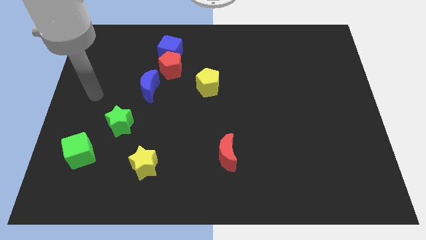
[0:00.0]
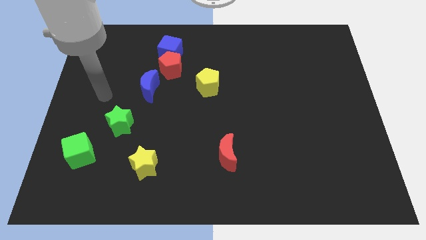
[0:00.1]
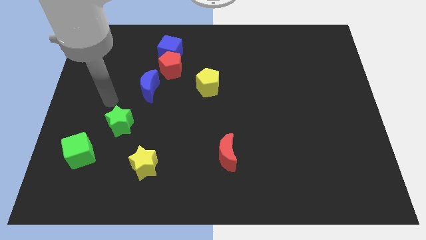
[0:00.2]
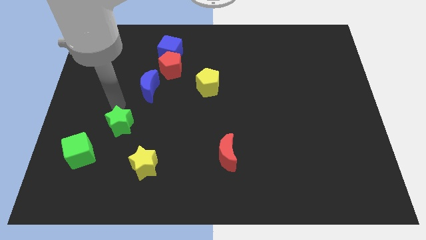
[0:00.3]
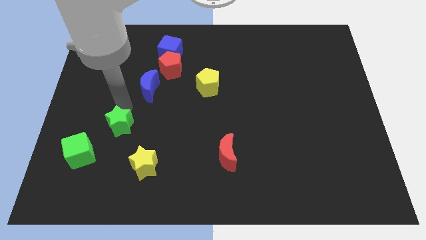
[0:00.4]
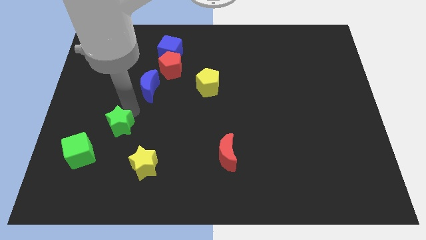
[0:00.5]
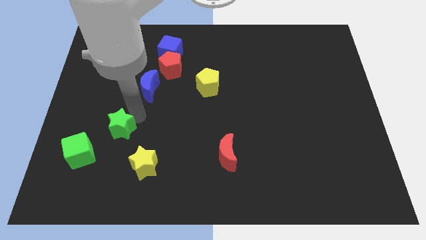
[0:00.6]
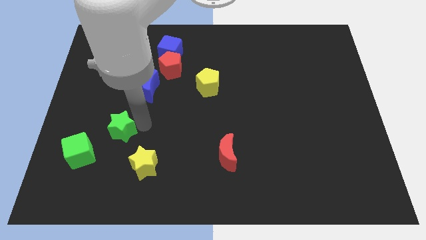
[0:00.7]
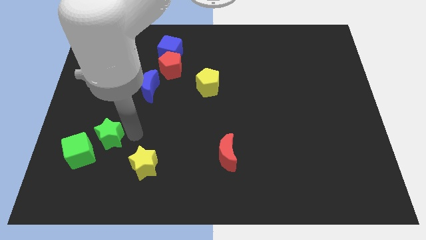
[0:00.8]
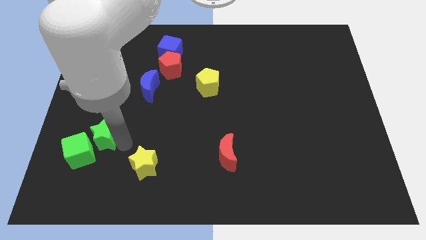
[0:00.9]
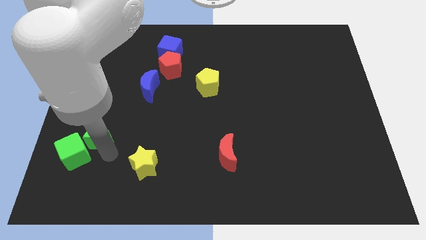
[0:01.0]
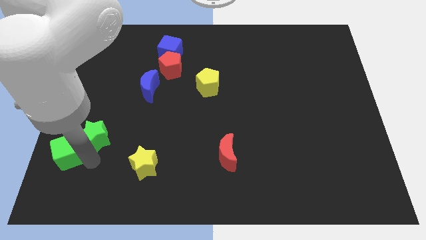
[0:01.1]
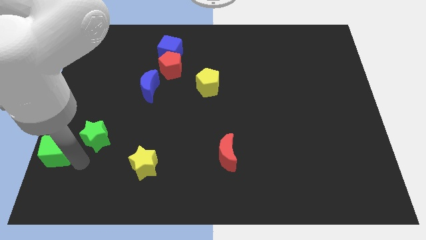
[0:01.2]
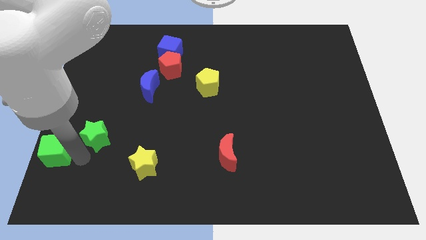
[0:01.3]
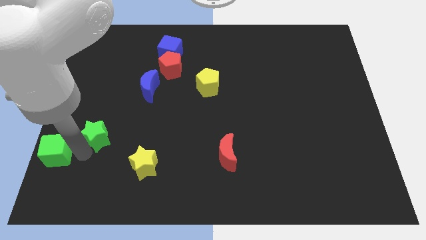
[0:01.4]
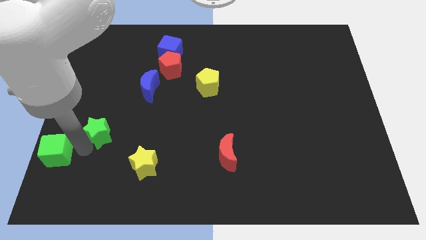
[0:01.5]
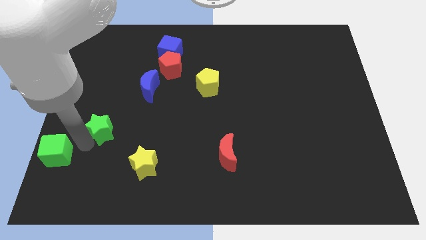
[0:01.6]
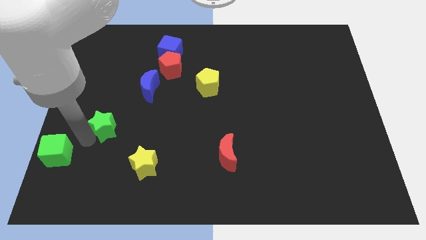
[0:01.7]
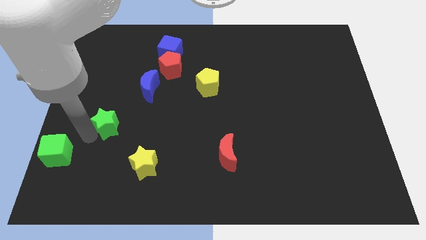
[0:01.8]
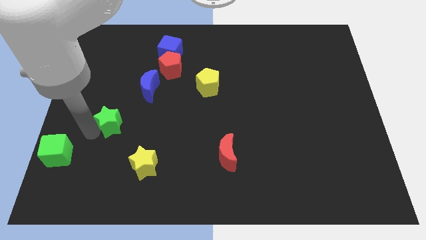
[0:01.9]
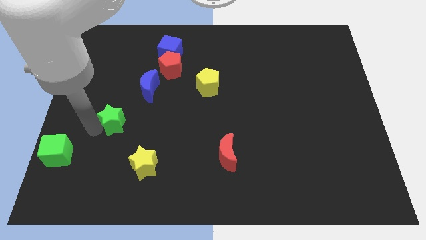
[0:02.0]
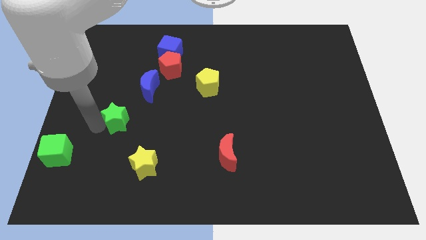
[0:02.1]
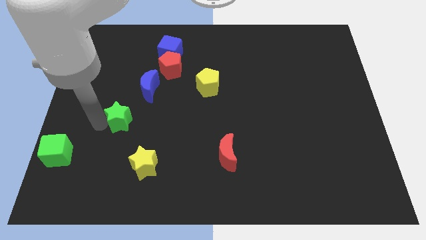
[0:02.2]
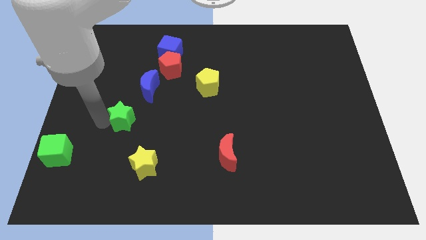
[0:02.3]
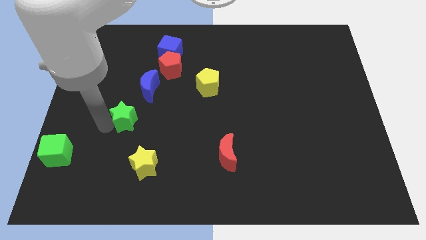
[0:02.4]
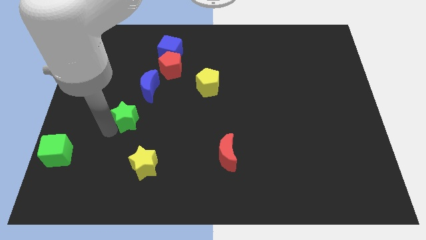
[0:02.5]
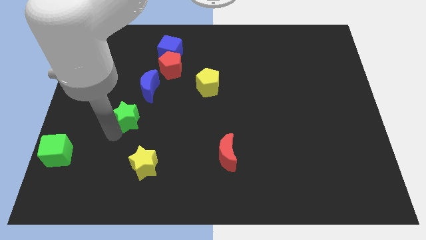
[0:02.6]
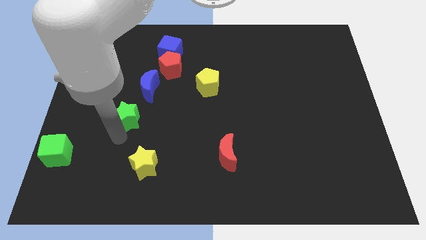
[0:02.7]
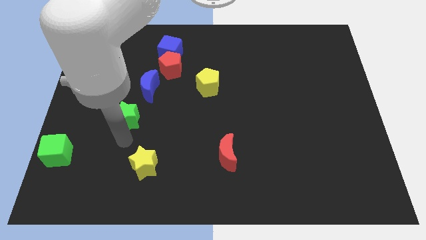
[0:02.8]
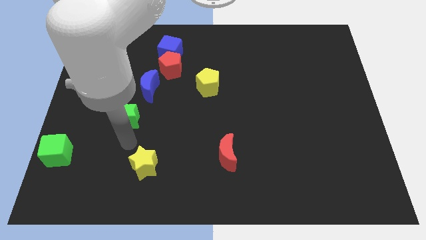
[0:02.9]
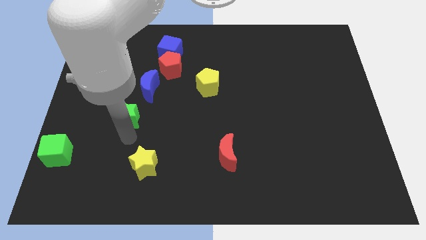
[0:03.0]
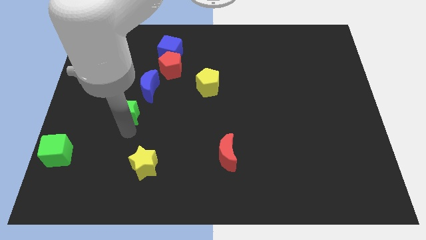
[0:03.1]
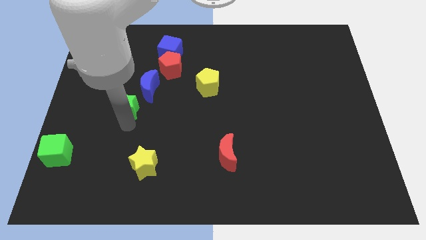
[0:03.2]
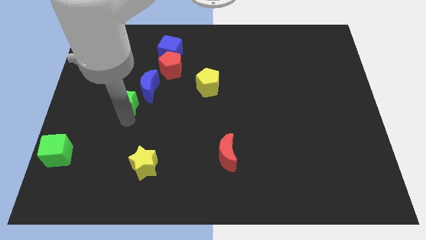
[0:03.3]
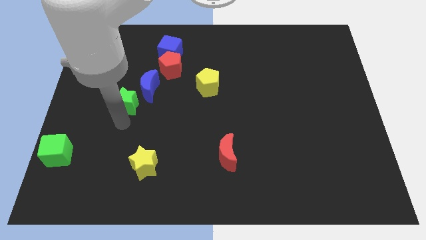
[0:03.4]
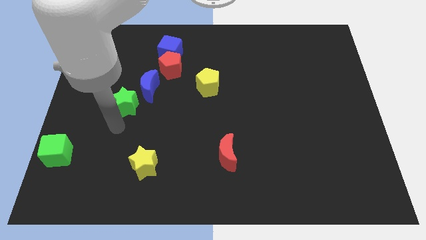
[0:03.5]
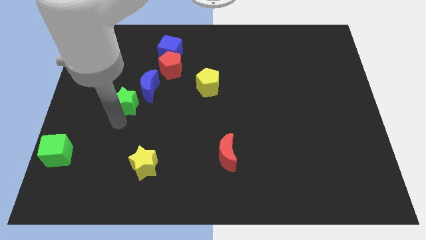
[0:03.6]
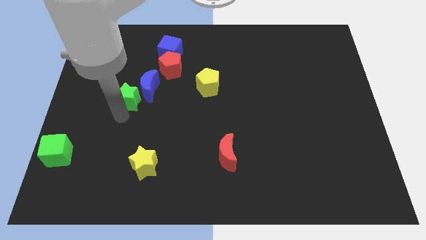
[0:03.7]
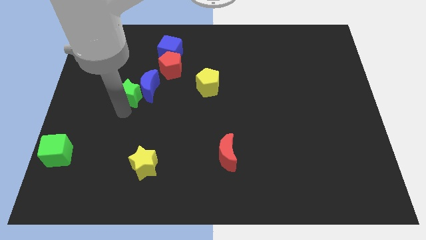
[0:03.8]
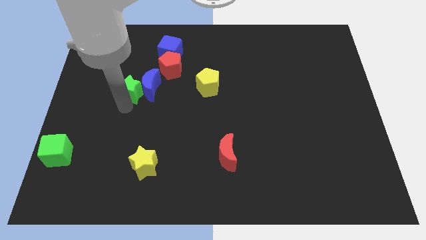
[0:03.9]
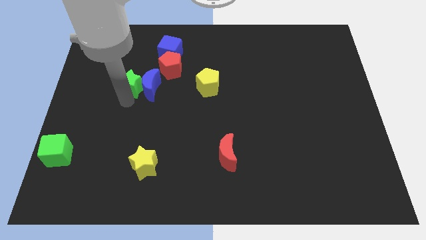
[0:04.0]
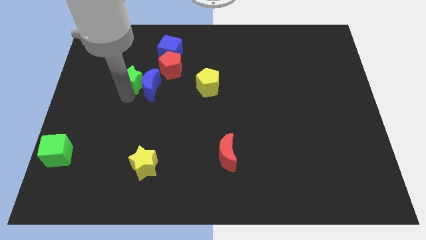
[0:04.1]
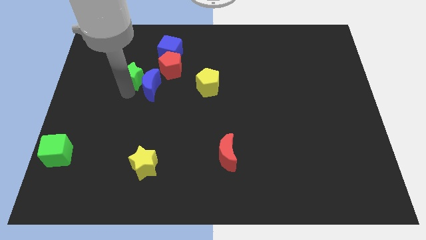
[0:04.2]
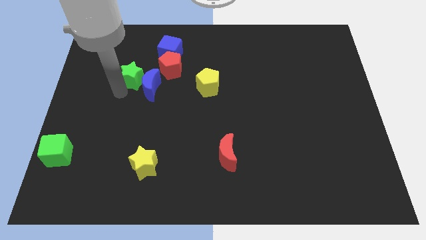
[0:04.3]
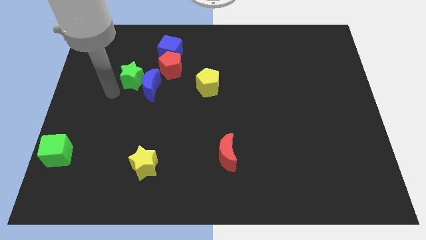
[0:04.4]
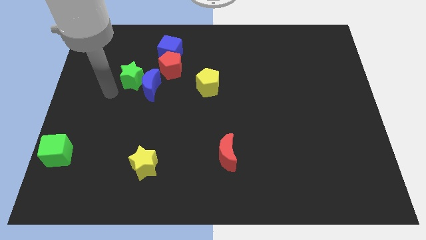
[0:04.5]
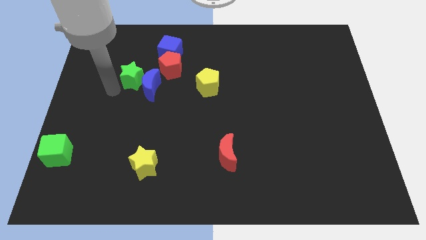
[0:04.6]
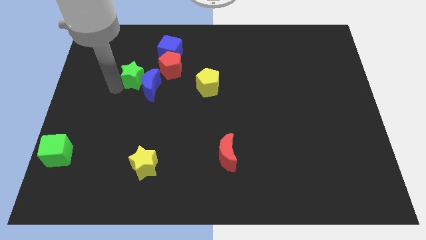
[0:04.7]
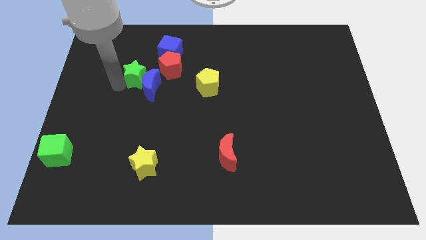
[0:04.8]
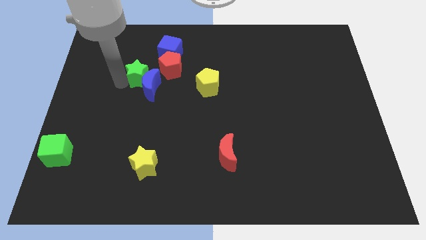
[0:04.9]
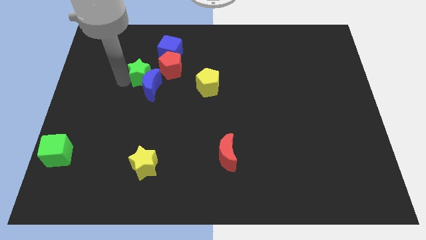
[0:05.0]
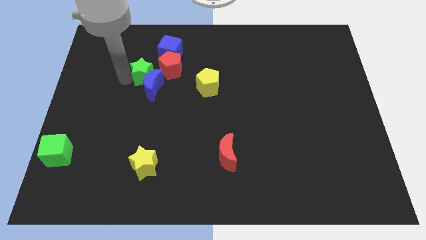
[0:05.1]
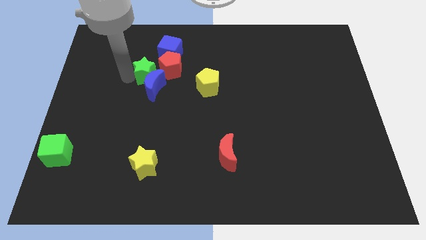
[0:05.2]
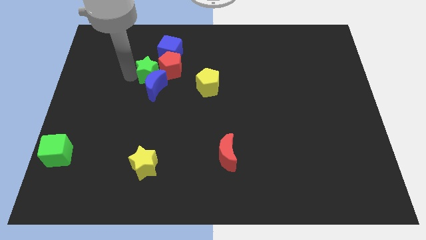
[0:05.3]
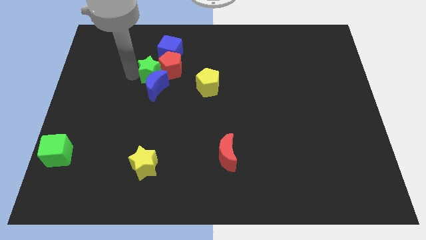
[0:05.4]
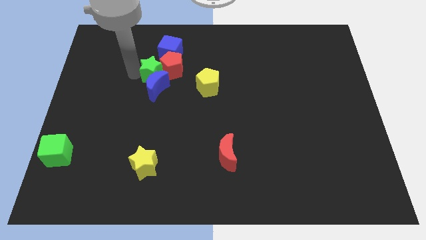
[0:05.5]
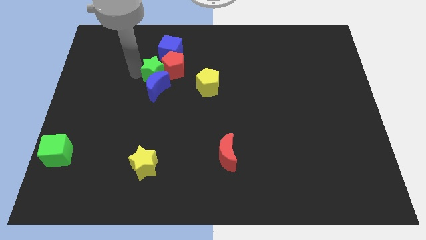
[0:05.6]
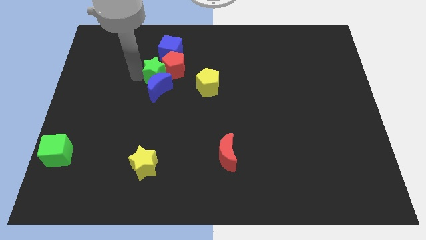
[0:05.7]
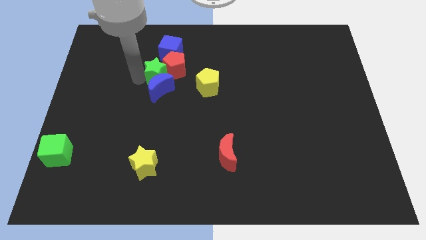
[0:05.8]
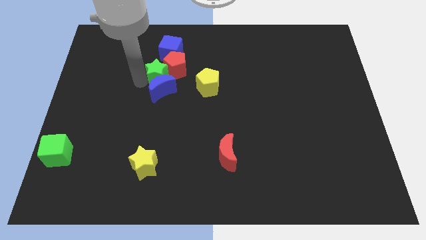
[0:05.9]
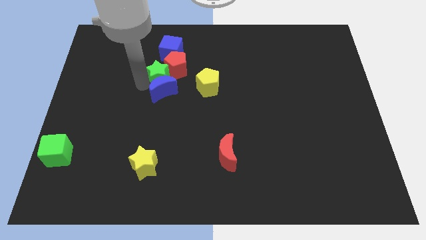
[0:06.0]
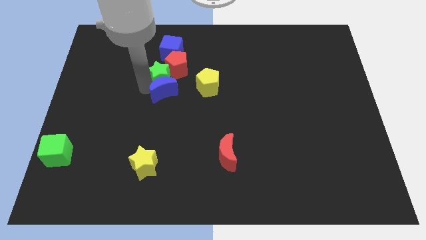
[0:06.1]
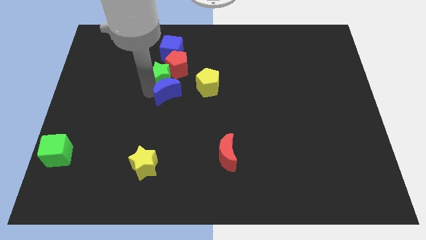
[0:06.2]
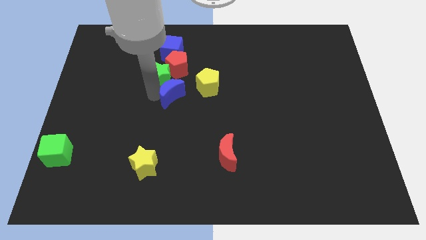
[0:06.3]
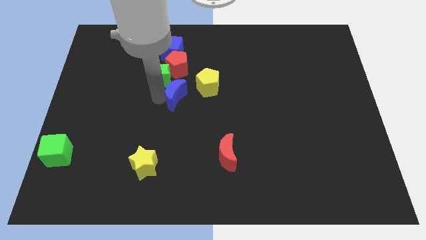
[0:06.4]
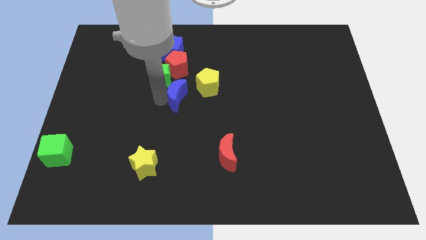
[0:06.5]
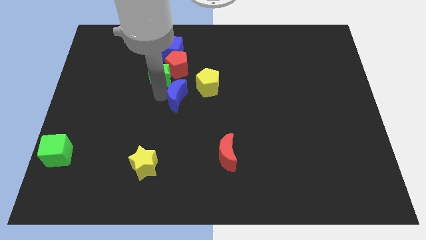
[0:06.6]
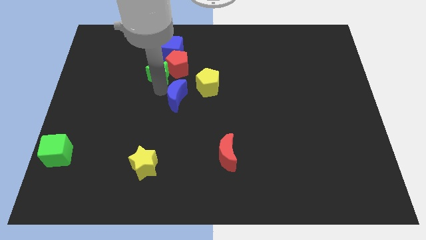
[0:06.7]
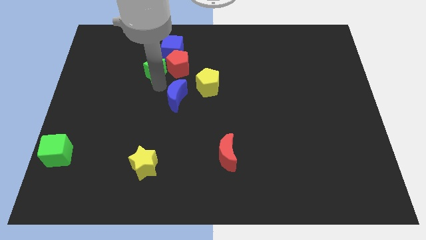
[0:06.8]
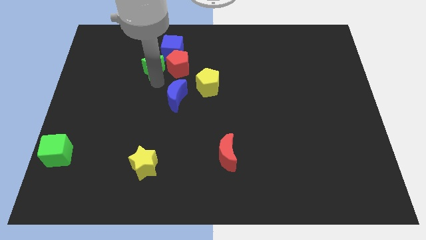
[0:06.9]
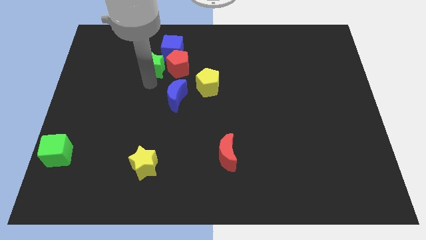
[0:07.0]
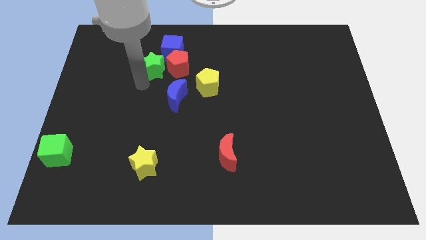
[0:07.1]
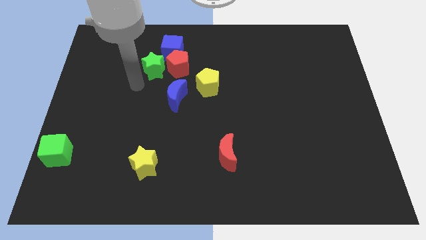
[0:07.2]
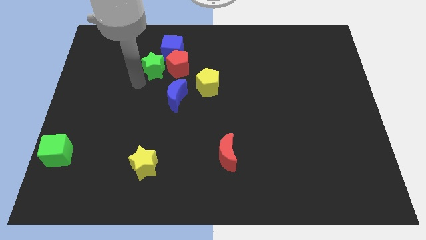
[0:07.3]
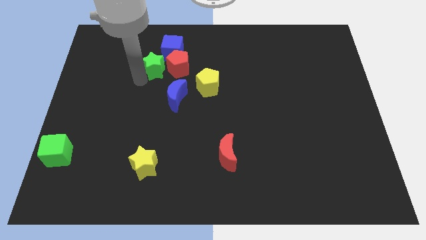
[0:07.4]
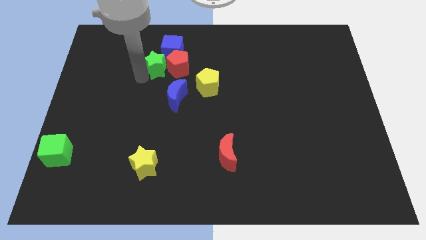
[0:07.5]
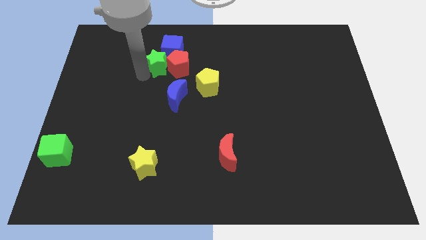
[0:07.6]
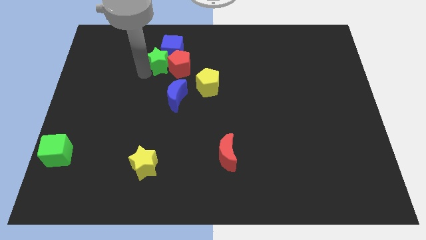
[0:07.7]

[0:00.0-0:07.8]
push the green star close to the blue cube
